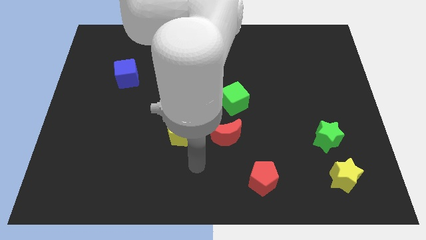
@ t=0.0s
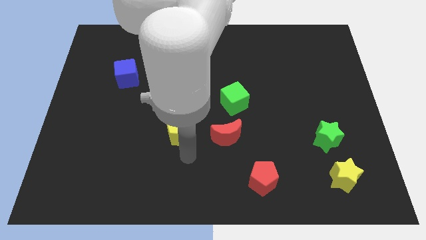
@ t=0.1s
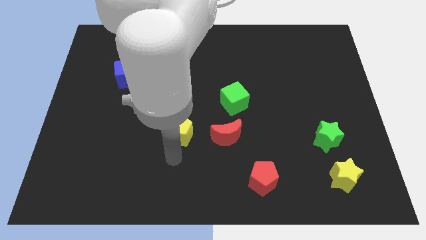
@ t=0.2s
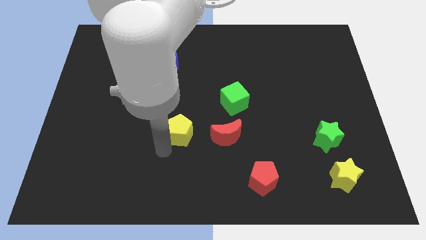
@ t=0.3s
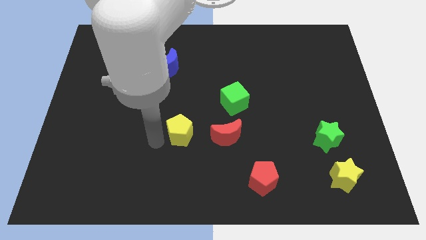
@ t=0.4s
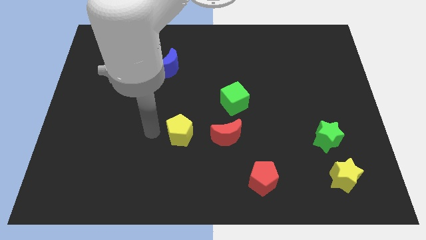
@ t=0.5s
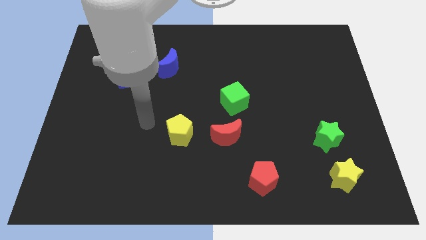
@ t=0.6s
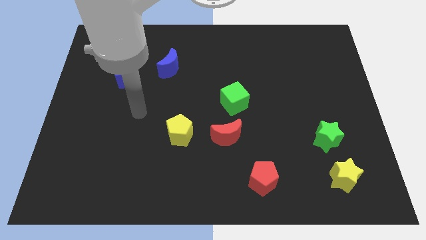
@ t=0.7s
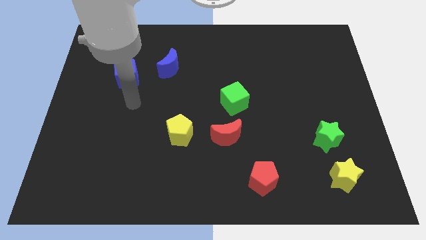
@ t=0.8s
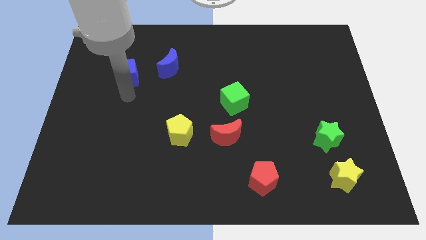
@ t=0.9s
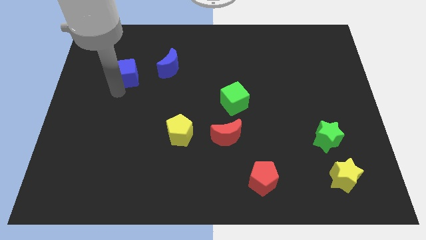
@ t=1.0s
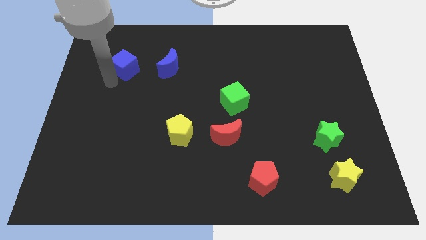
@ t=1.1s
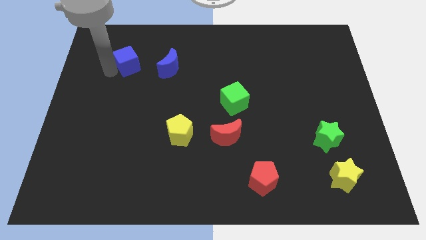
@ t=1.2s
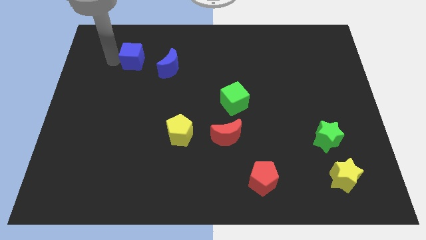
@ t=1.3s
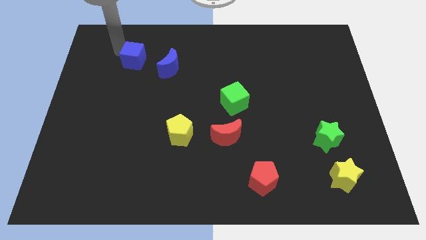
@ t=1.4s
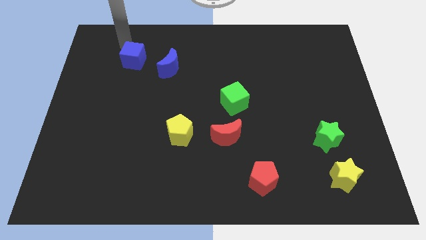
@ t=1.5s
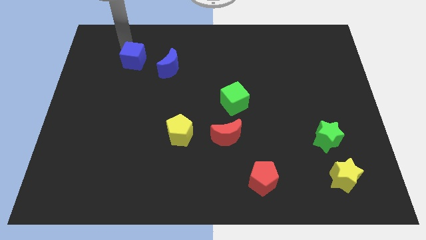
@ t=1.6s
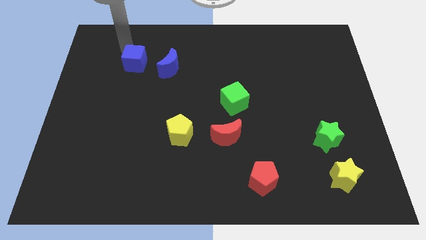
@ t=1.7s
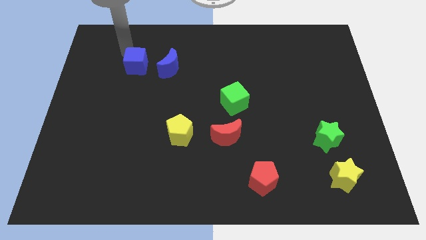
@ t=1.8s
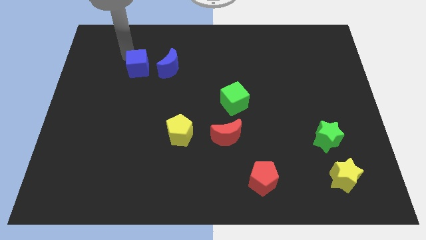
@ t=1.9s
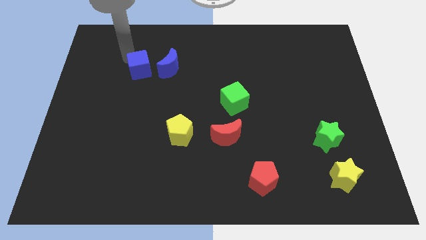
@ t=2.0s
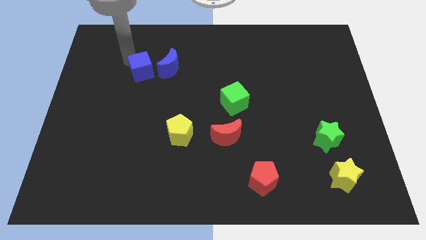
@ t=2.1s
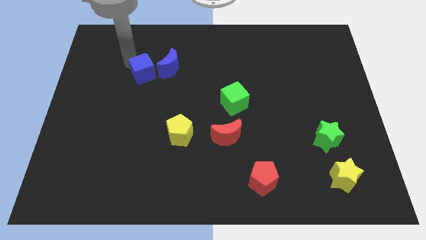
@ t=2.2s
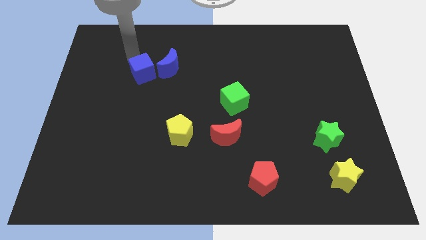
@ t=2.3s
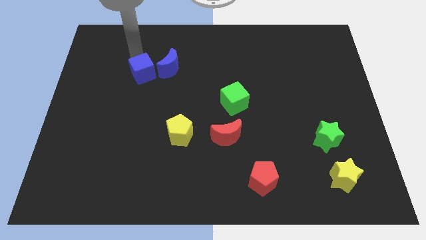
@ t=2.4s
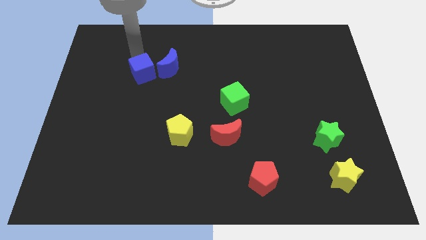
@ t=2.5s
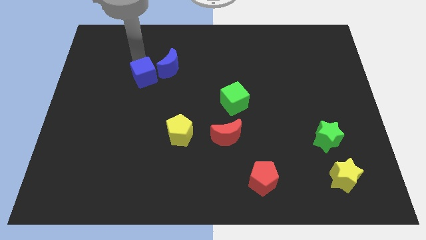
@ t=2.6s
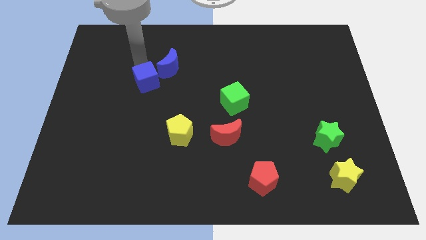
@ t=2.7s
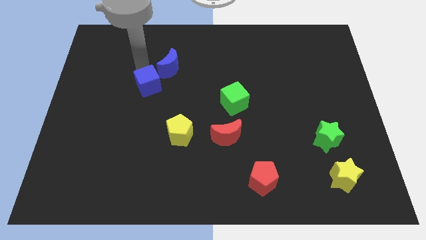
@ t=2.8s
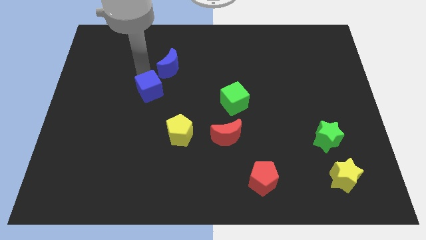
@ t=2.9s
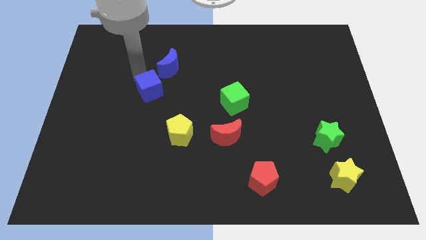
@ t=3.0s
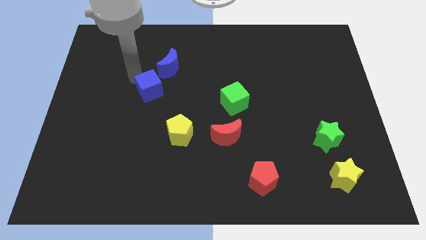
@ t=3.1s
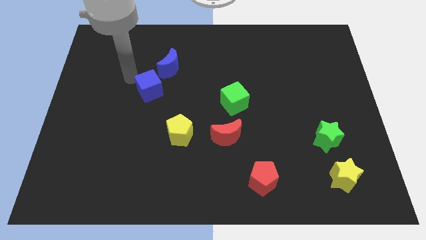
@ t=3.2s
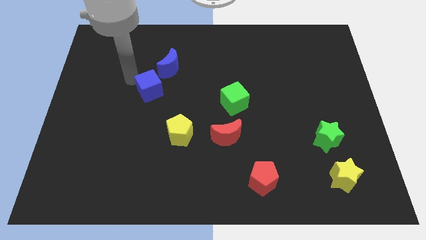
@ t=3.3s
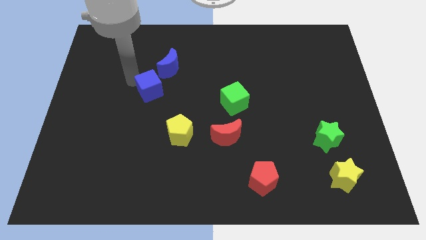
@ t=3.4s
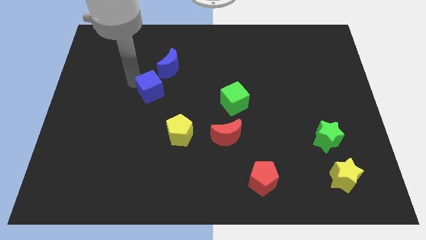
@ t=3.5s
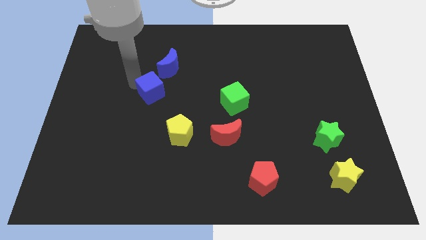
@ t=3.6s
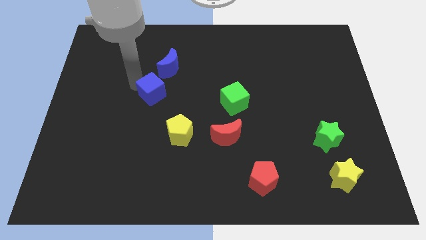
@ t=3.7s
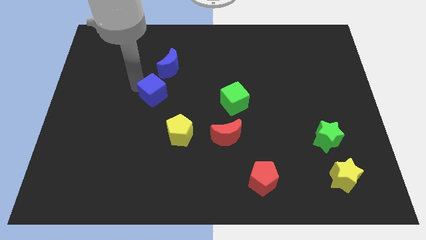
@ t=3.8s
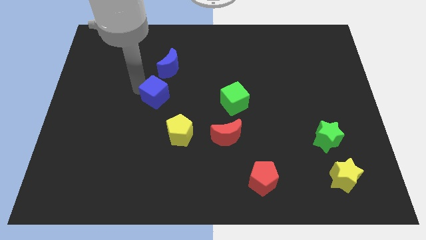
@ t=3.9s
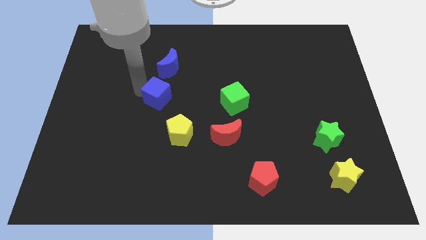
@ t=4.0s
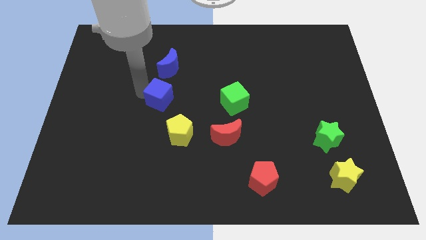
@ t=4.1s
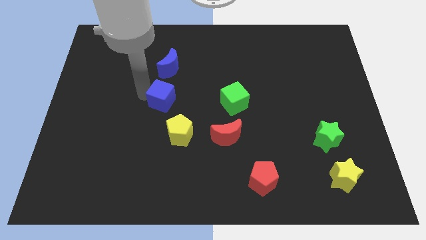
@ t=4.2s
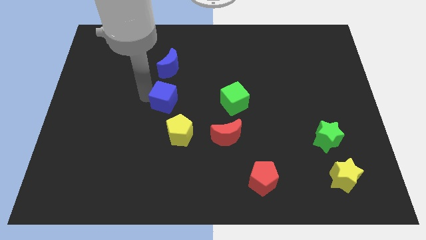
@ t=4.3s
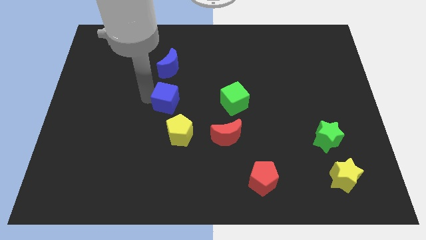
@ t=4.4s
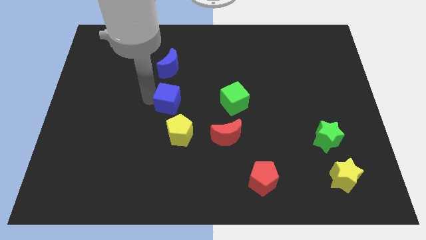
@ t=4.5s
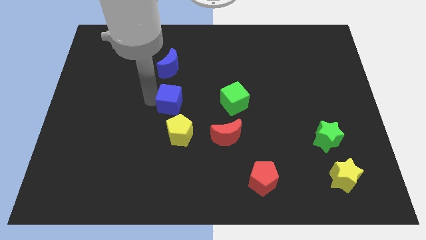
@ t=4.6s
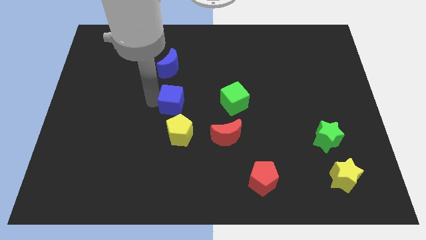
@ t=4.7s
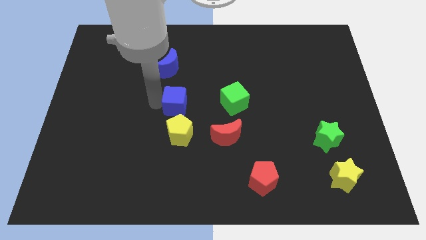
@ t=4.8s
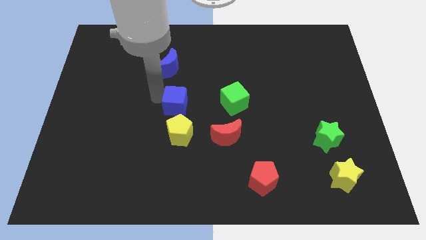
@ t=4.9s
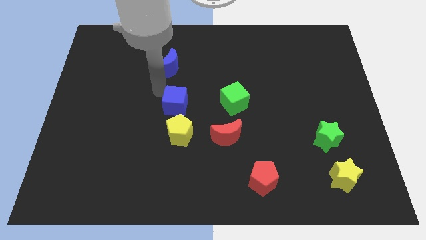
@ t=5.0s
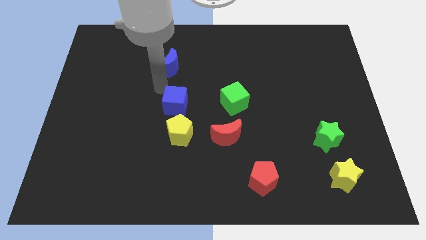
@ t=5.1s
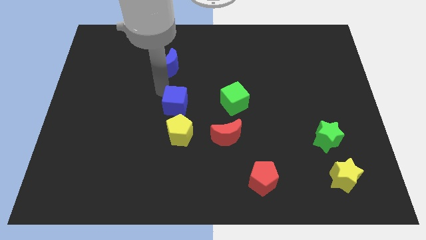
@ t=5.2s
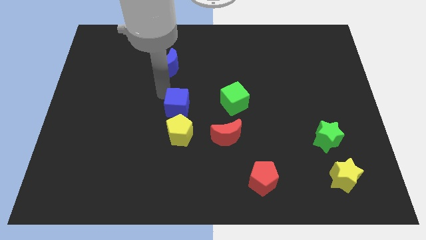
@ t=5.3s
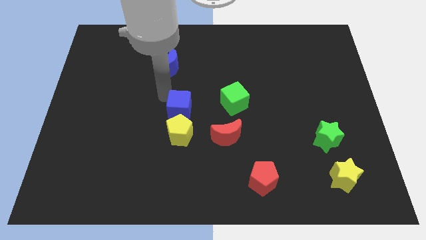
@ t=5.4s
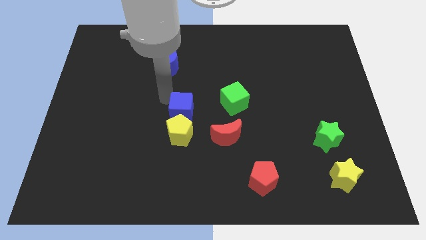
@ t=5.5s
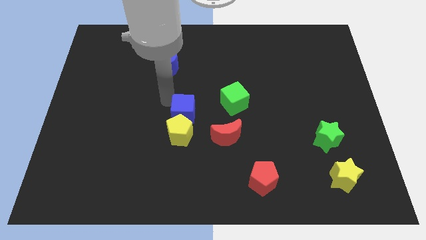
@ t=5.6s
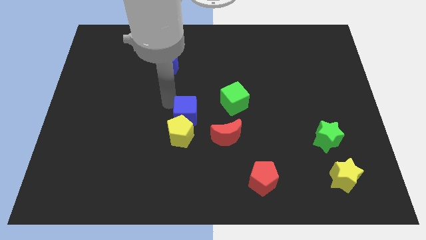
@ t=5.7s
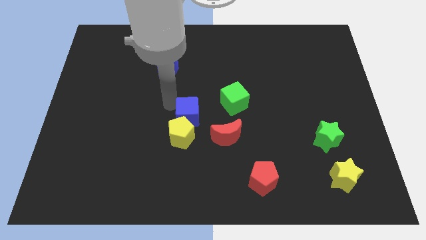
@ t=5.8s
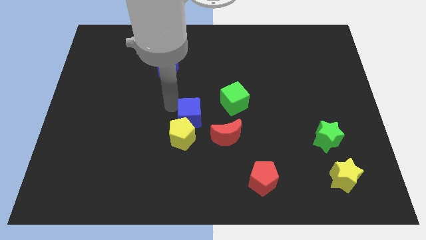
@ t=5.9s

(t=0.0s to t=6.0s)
move the blue cube downwards and then to the right

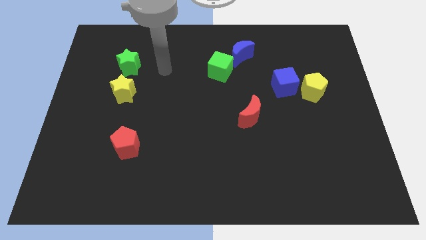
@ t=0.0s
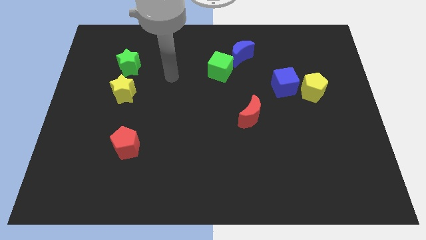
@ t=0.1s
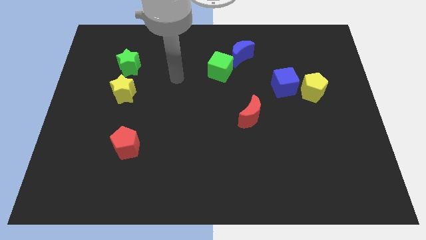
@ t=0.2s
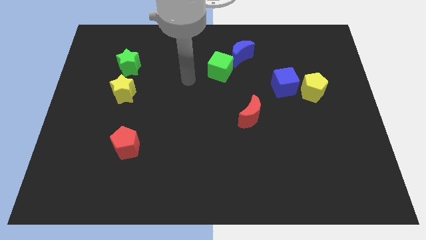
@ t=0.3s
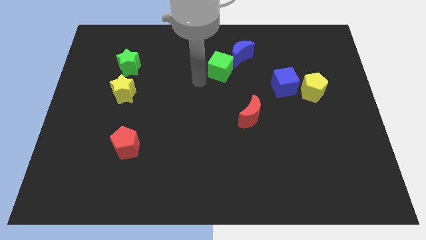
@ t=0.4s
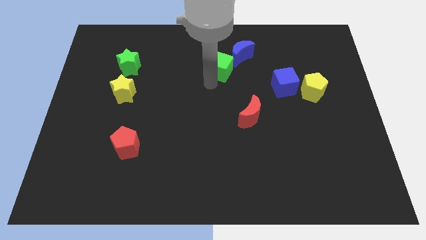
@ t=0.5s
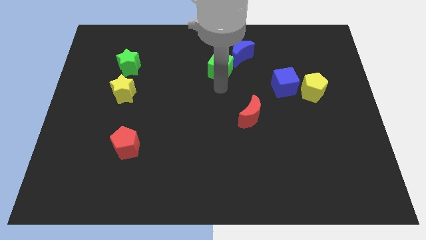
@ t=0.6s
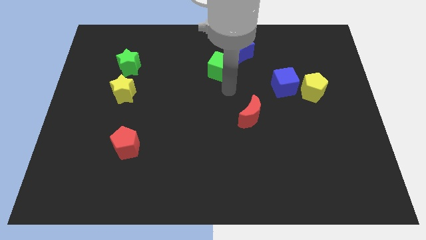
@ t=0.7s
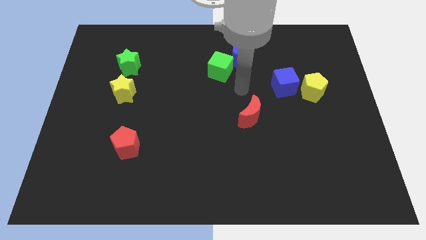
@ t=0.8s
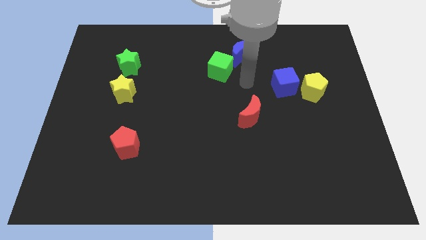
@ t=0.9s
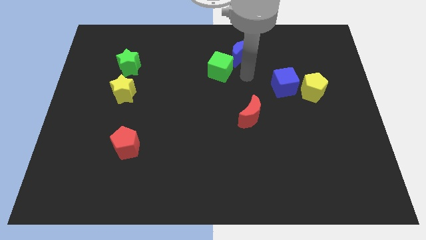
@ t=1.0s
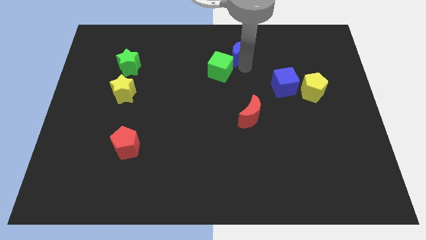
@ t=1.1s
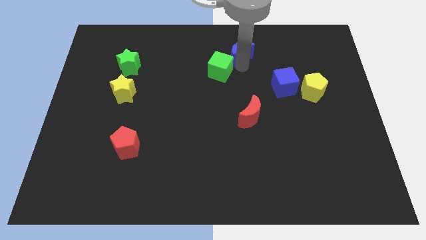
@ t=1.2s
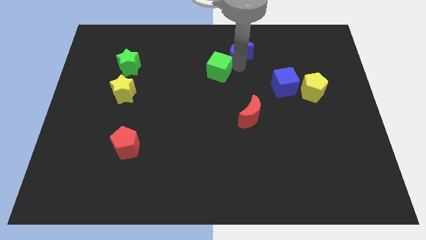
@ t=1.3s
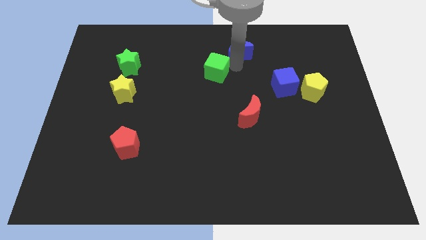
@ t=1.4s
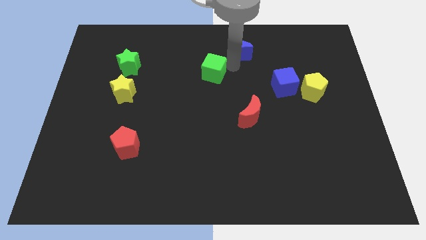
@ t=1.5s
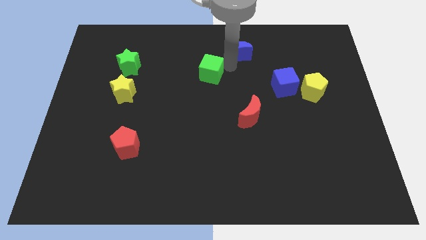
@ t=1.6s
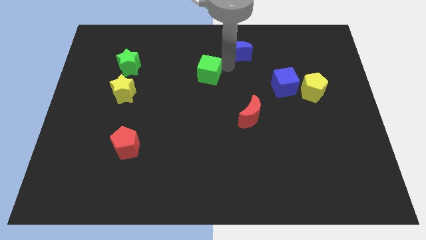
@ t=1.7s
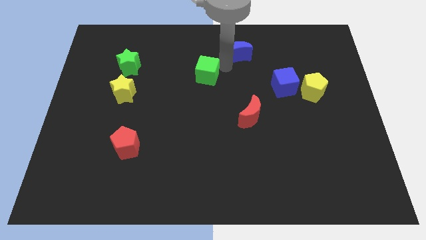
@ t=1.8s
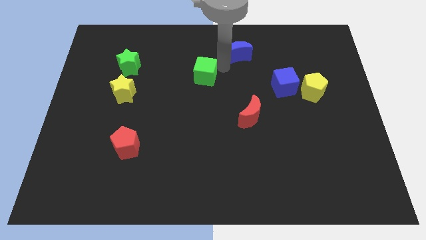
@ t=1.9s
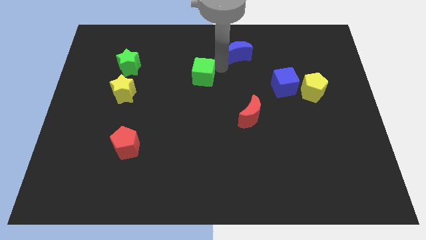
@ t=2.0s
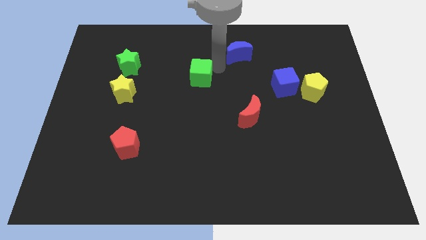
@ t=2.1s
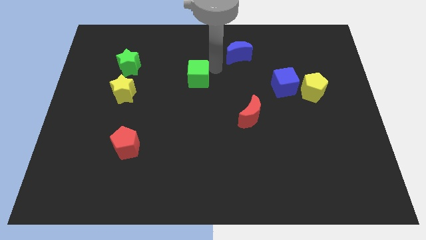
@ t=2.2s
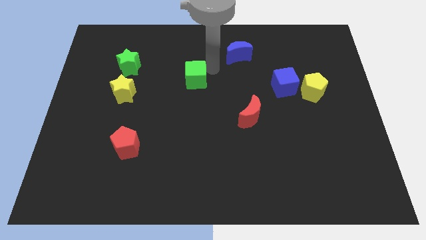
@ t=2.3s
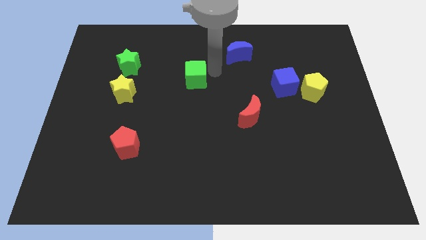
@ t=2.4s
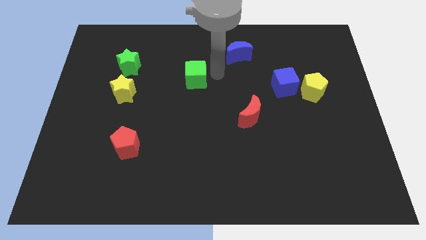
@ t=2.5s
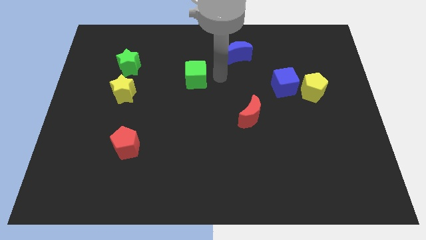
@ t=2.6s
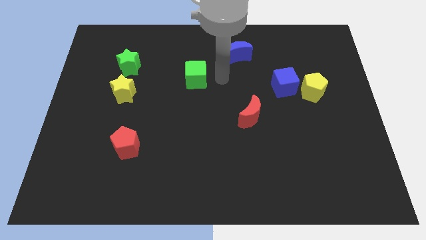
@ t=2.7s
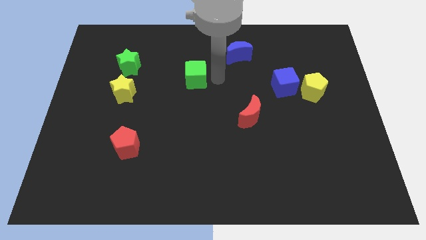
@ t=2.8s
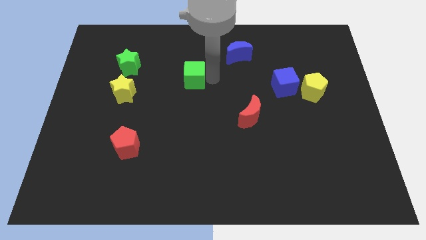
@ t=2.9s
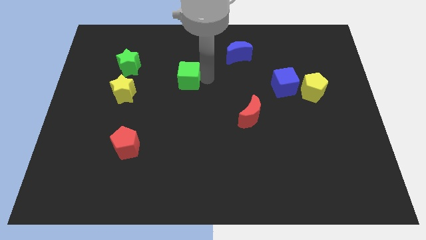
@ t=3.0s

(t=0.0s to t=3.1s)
move the green cube a little left
